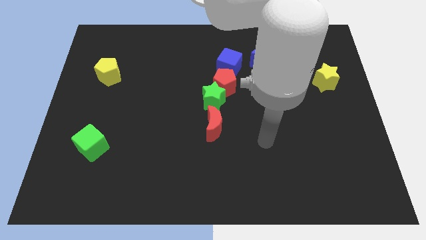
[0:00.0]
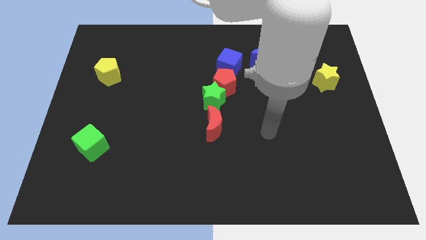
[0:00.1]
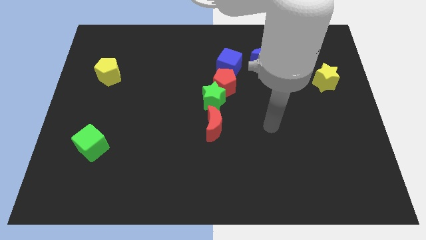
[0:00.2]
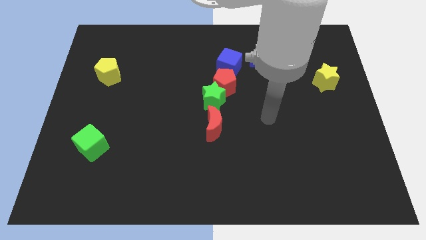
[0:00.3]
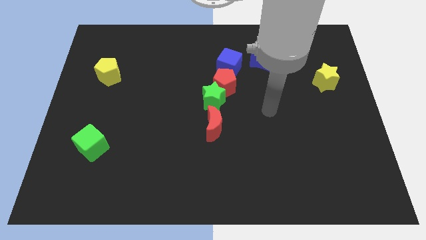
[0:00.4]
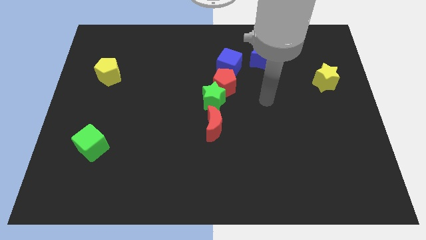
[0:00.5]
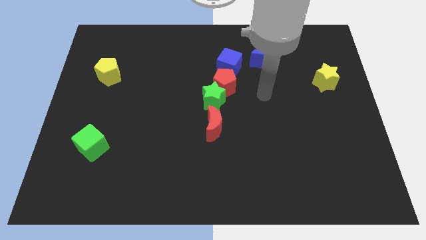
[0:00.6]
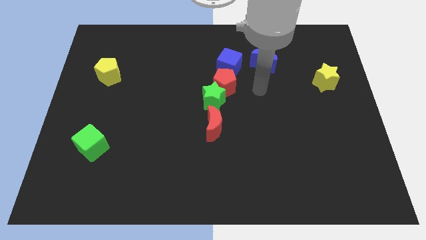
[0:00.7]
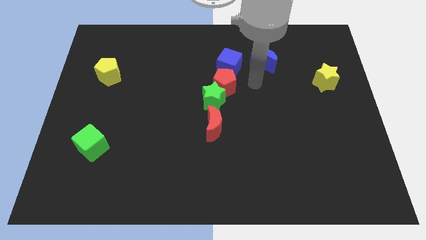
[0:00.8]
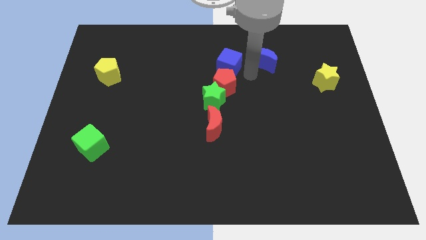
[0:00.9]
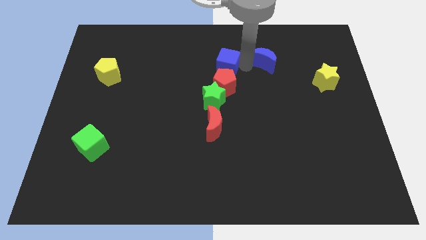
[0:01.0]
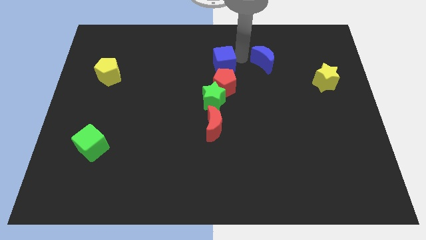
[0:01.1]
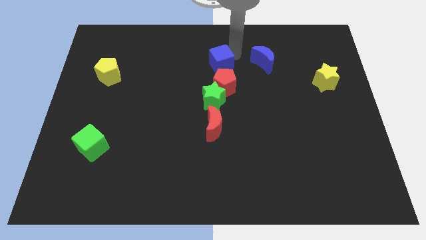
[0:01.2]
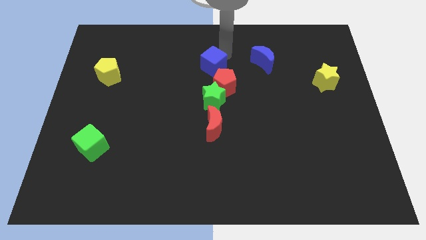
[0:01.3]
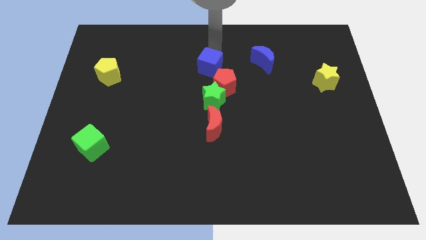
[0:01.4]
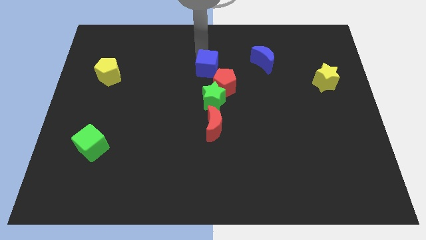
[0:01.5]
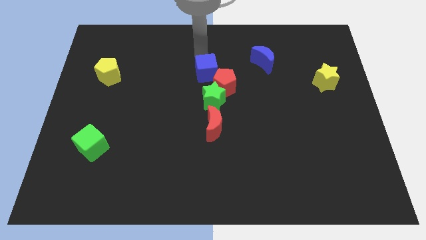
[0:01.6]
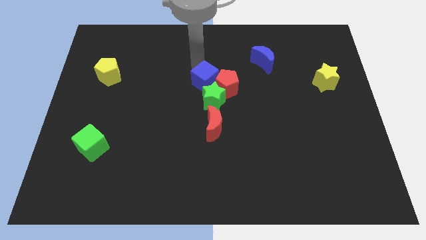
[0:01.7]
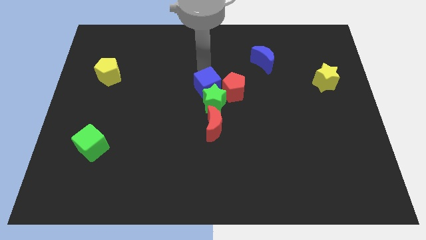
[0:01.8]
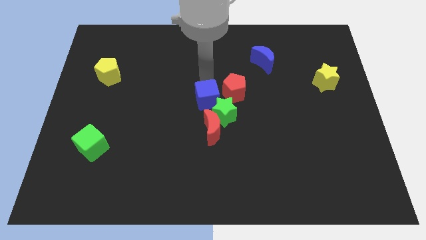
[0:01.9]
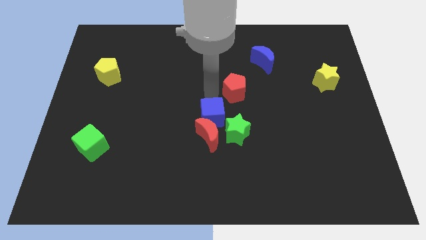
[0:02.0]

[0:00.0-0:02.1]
separate the red pentagon from the green star and blue cube

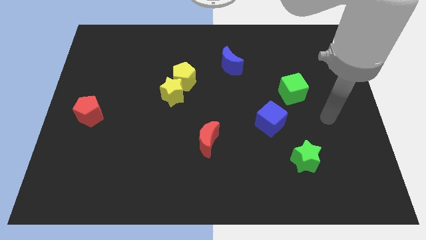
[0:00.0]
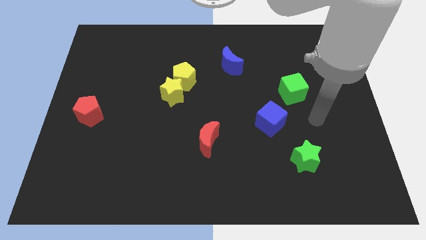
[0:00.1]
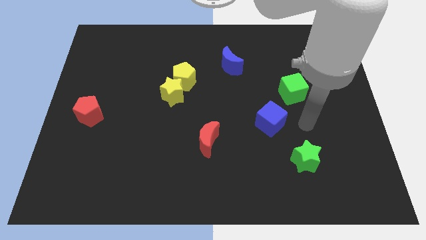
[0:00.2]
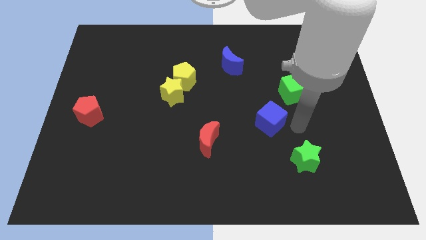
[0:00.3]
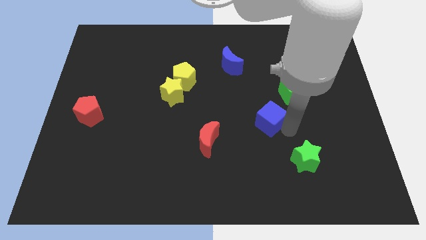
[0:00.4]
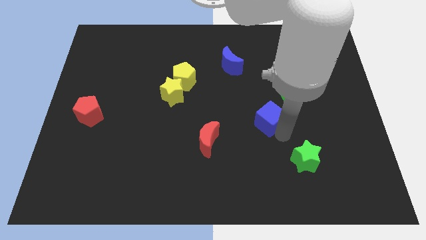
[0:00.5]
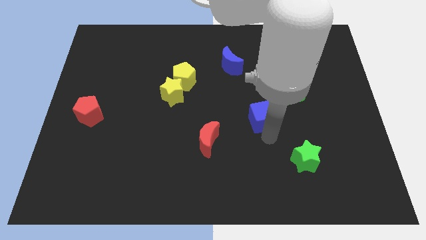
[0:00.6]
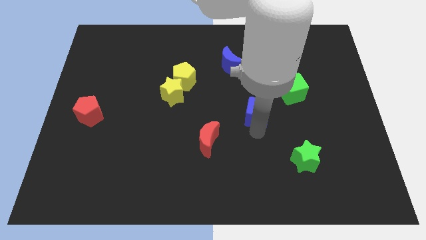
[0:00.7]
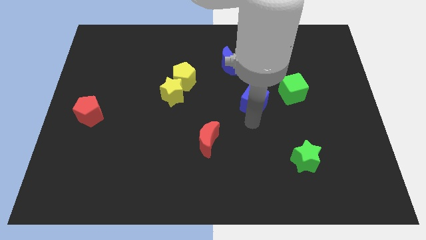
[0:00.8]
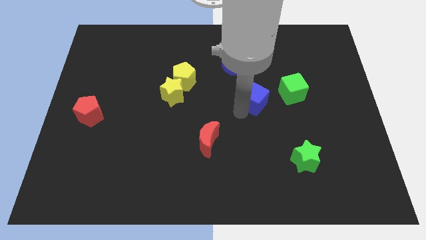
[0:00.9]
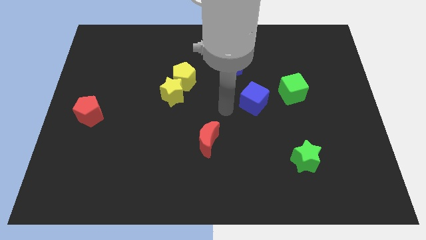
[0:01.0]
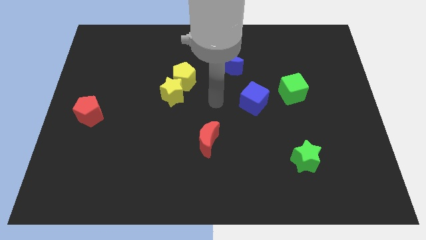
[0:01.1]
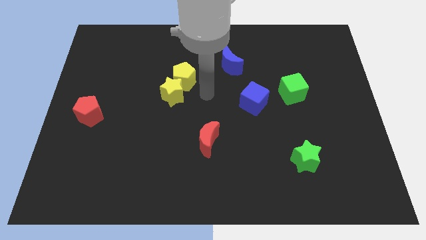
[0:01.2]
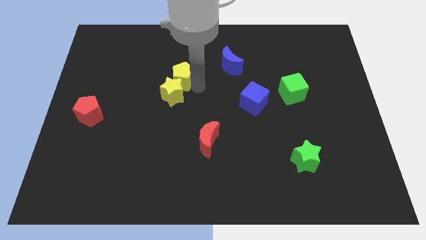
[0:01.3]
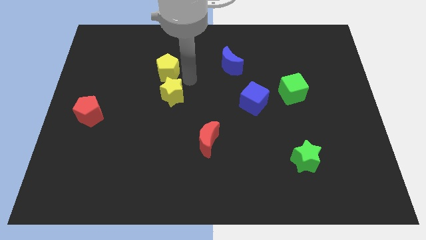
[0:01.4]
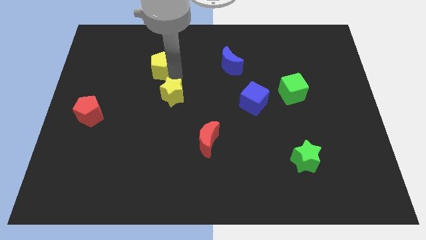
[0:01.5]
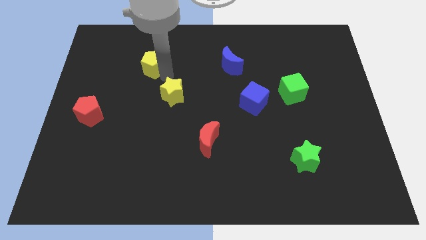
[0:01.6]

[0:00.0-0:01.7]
move the yellow star away from the yellow pentagon

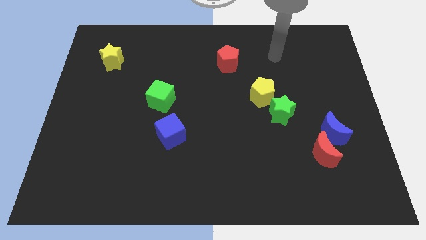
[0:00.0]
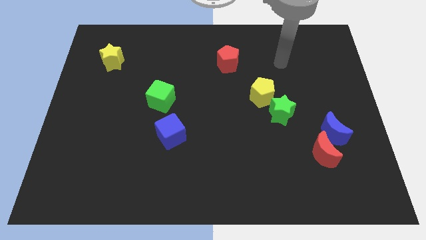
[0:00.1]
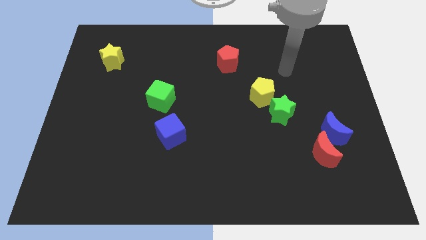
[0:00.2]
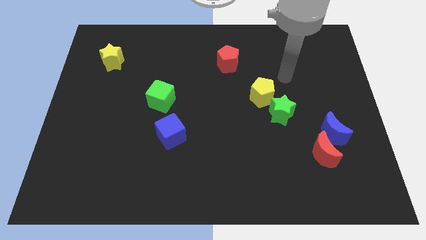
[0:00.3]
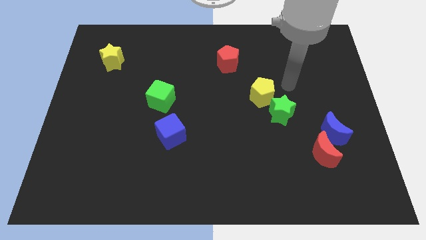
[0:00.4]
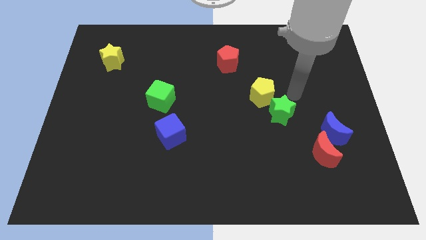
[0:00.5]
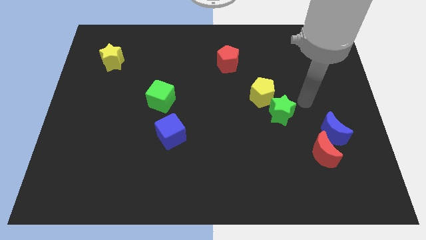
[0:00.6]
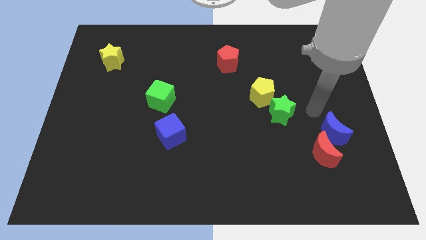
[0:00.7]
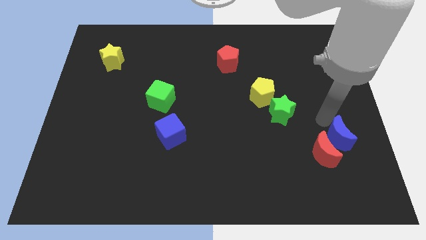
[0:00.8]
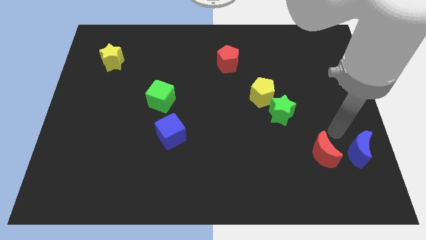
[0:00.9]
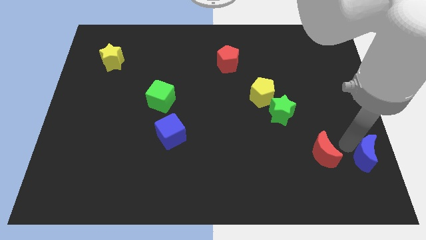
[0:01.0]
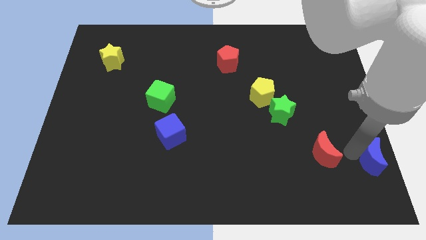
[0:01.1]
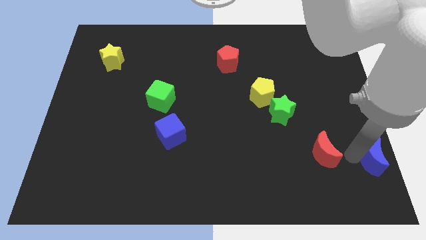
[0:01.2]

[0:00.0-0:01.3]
separate the red moon from the blue moon

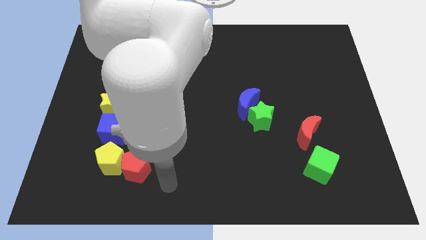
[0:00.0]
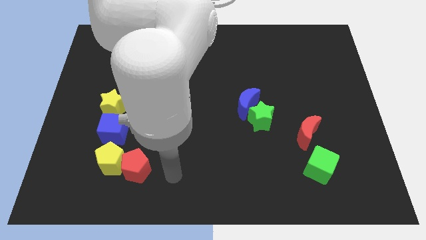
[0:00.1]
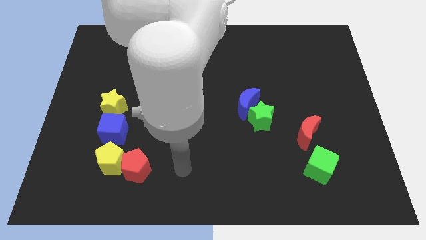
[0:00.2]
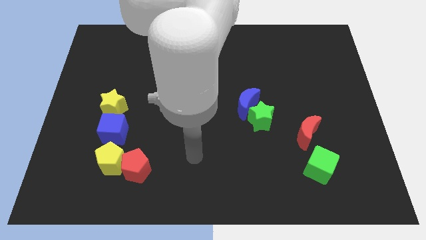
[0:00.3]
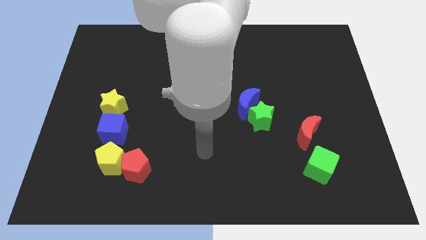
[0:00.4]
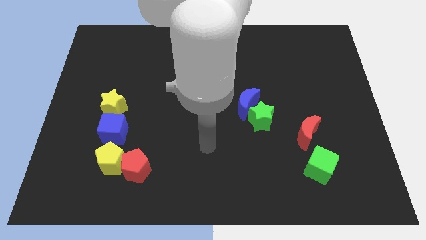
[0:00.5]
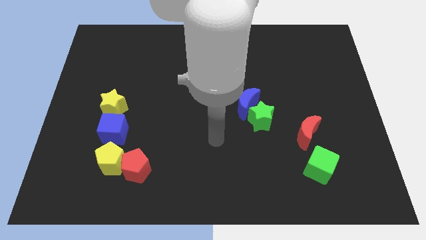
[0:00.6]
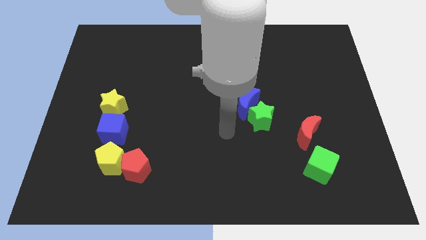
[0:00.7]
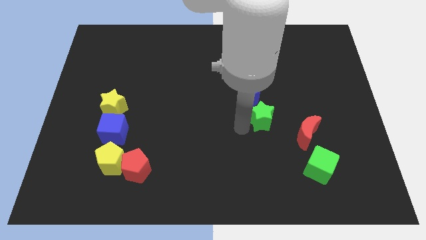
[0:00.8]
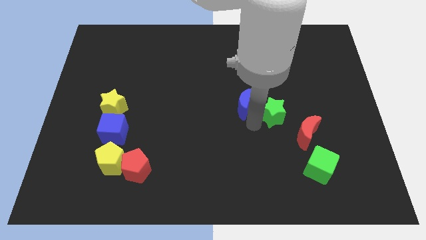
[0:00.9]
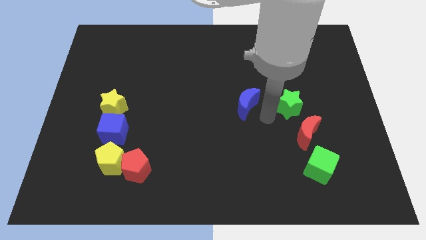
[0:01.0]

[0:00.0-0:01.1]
move the blue moon away from the green star

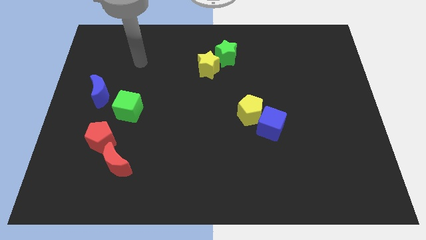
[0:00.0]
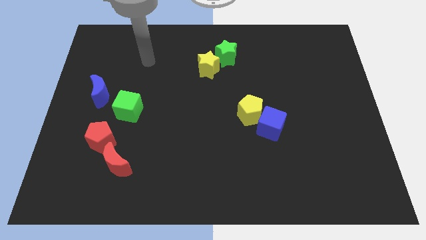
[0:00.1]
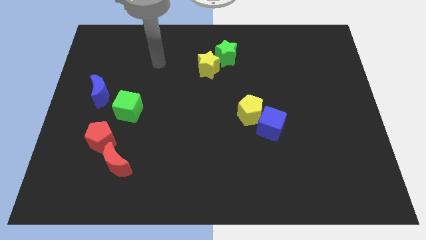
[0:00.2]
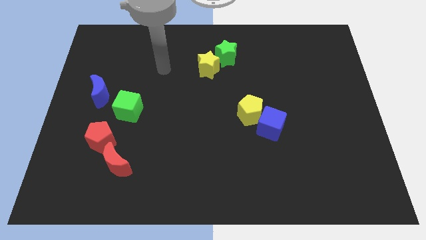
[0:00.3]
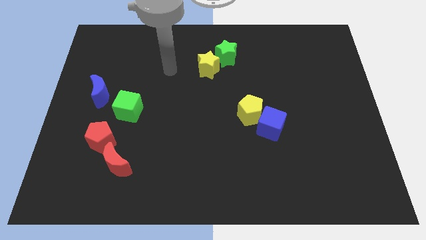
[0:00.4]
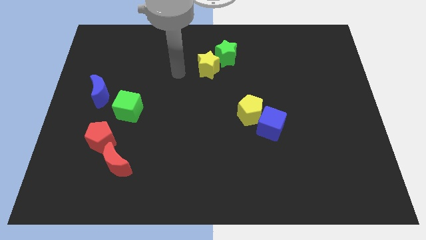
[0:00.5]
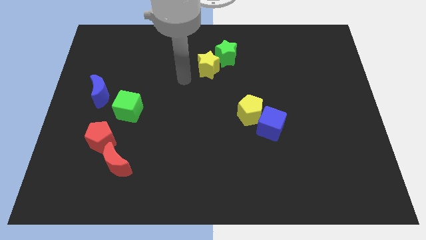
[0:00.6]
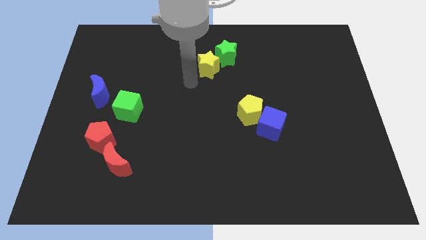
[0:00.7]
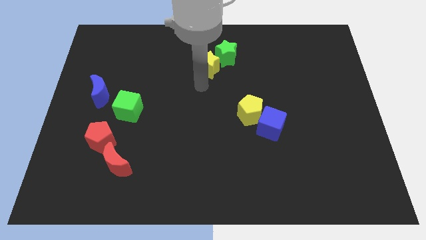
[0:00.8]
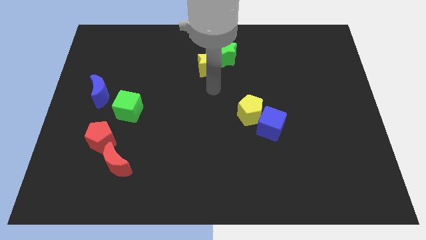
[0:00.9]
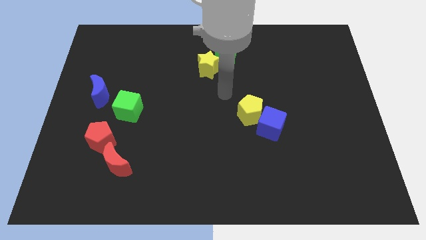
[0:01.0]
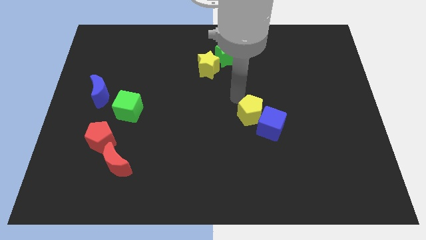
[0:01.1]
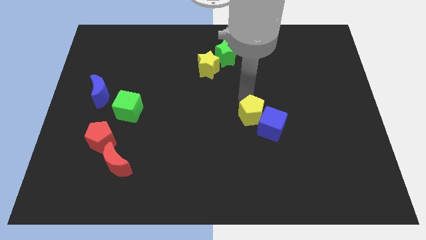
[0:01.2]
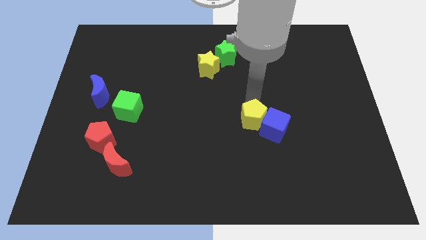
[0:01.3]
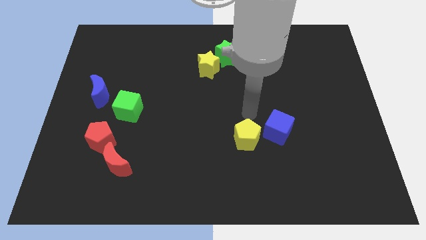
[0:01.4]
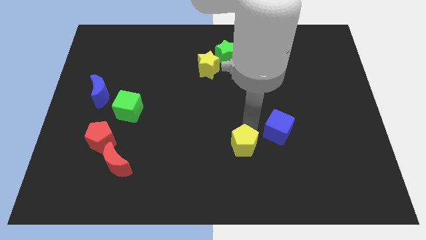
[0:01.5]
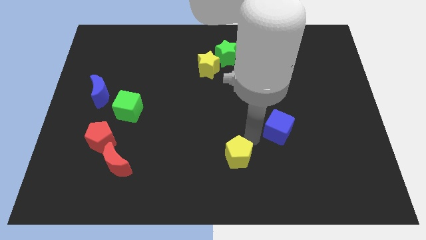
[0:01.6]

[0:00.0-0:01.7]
move the blue cube away from the yellow pentagon

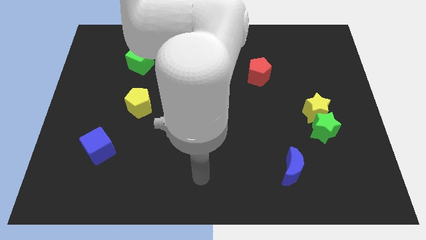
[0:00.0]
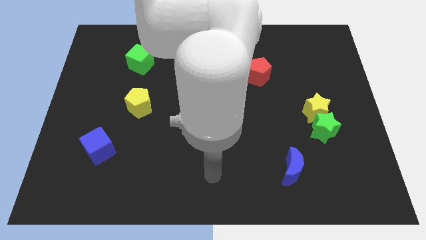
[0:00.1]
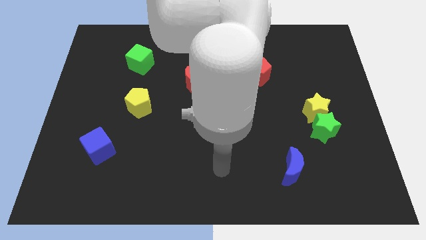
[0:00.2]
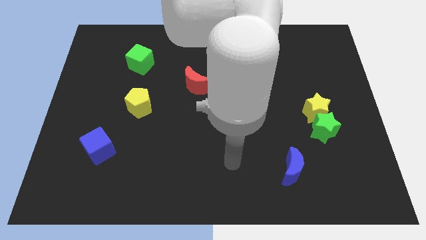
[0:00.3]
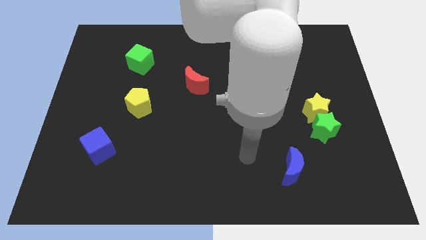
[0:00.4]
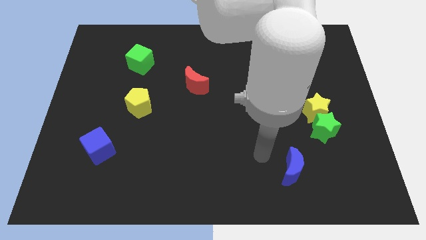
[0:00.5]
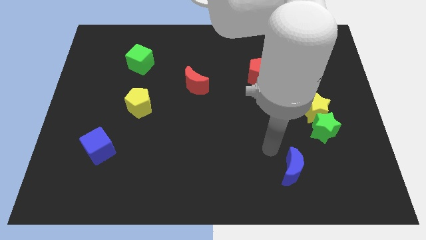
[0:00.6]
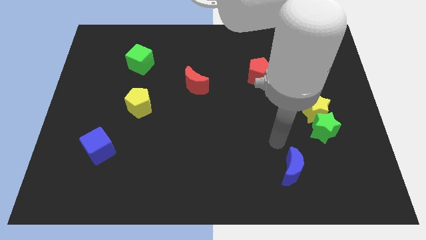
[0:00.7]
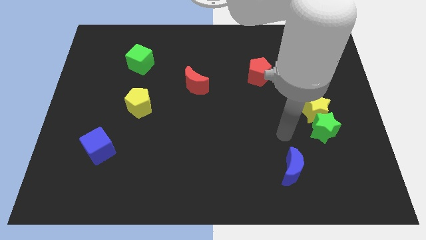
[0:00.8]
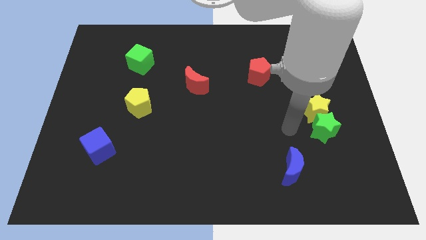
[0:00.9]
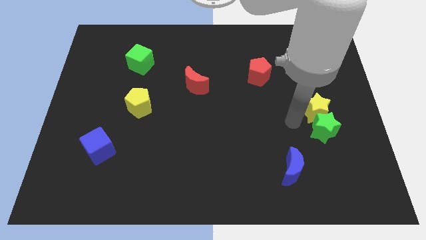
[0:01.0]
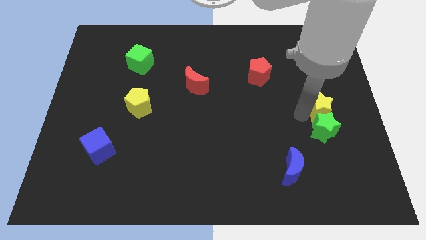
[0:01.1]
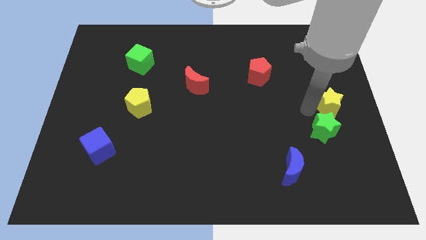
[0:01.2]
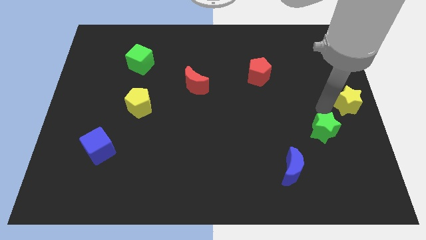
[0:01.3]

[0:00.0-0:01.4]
pull the green star apart from the yellow star
